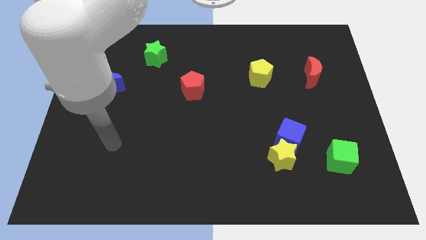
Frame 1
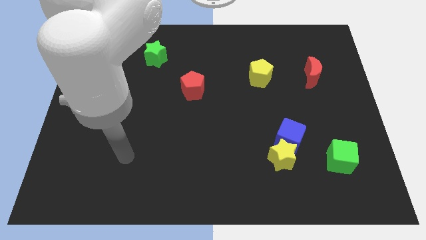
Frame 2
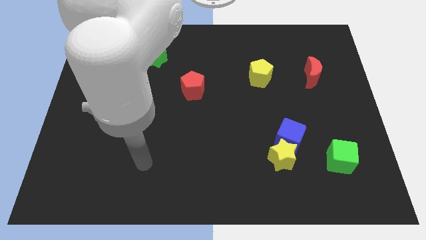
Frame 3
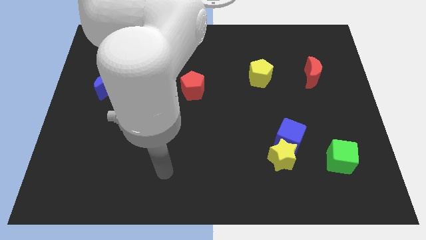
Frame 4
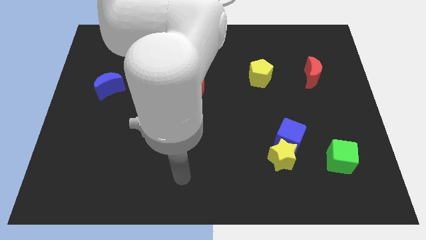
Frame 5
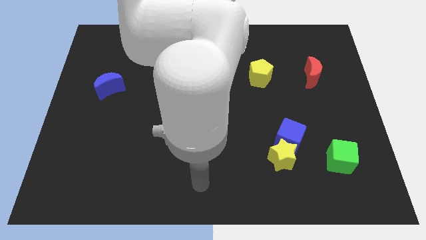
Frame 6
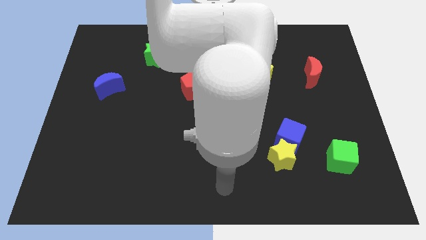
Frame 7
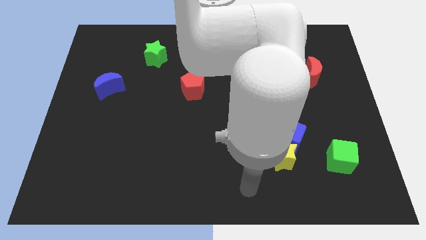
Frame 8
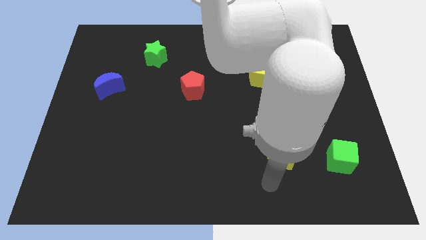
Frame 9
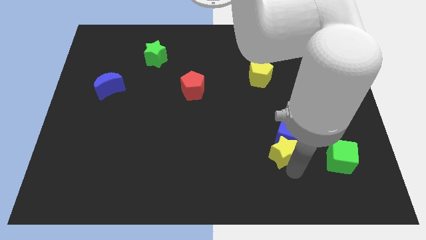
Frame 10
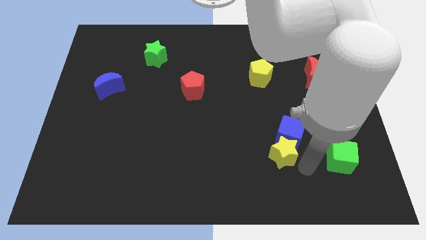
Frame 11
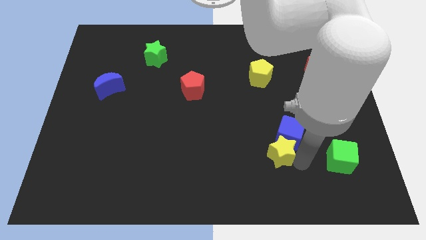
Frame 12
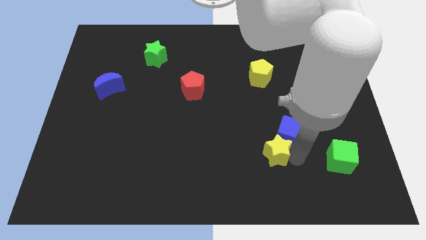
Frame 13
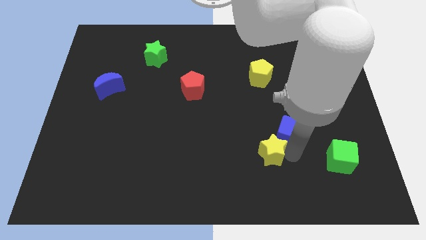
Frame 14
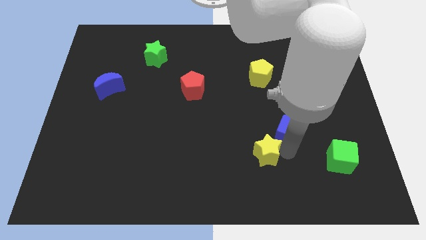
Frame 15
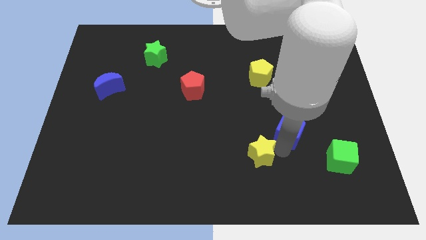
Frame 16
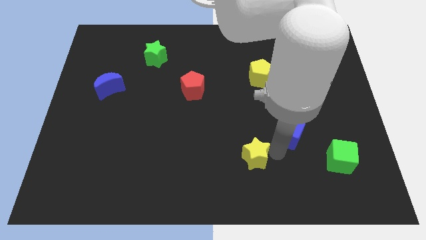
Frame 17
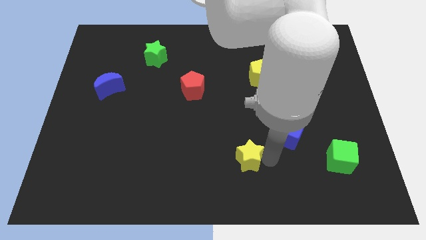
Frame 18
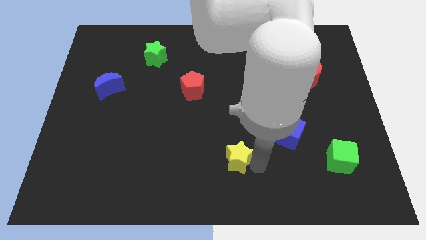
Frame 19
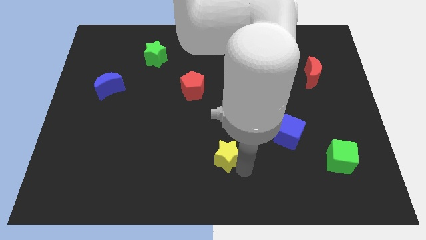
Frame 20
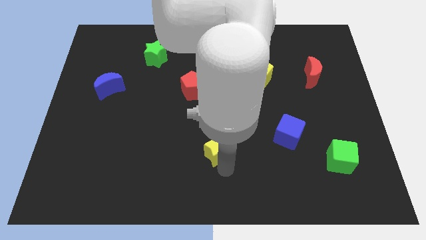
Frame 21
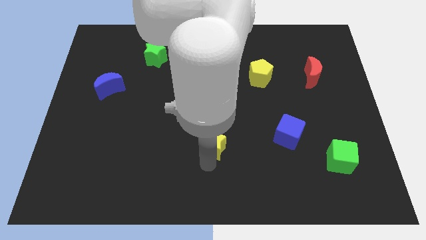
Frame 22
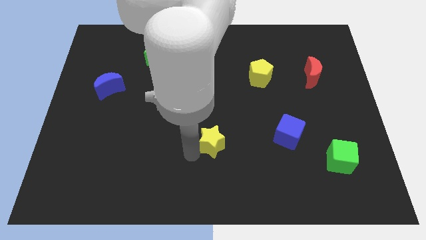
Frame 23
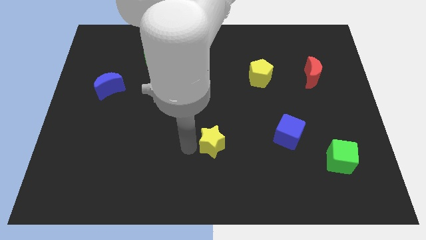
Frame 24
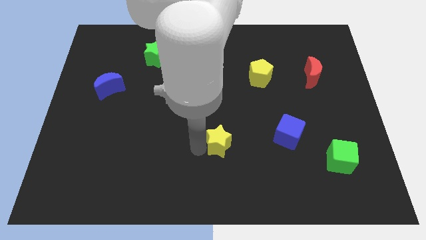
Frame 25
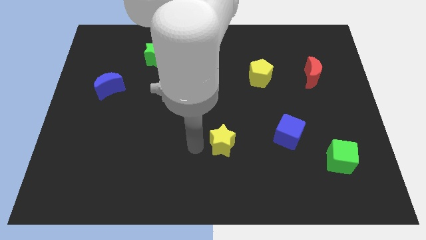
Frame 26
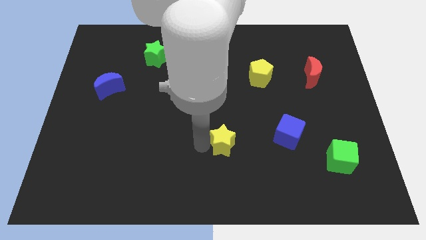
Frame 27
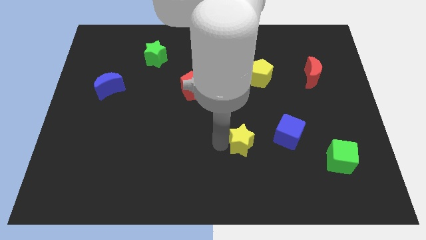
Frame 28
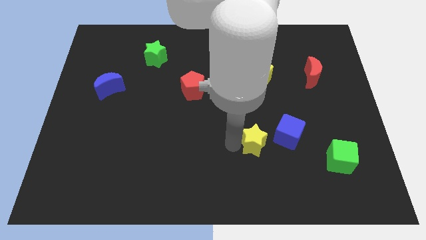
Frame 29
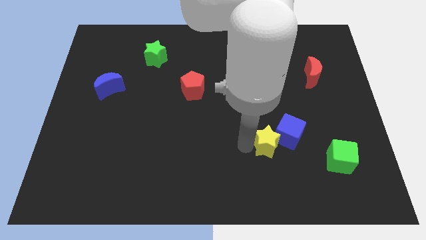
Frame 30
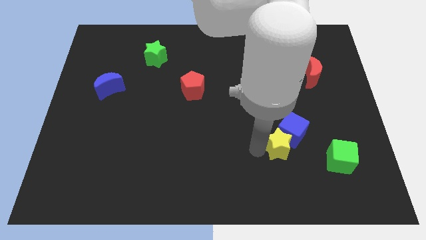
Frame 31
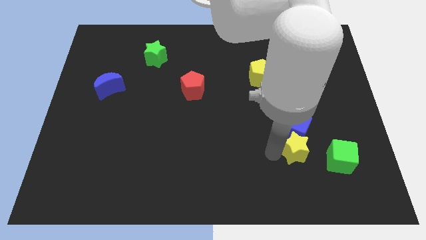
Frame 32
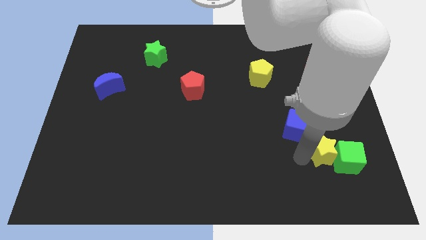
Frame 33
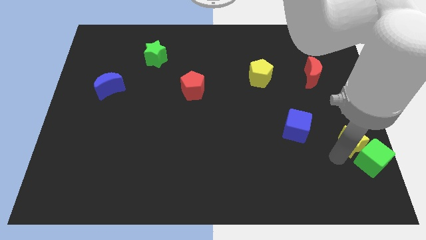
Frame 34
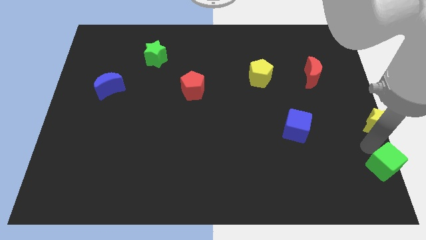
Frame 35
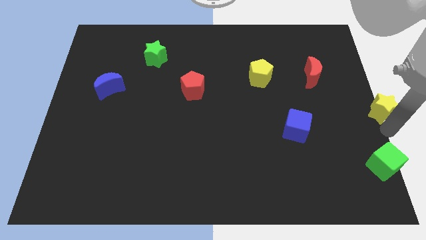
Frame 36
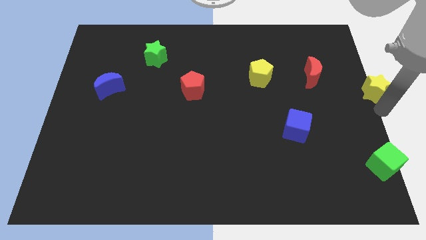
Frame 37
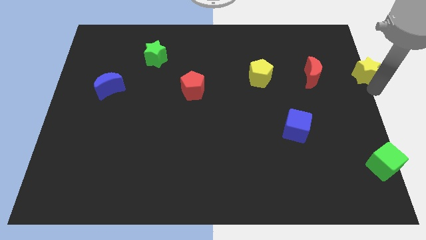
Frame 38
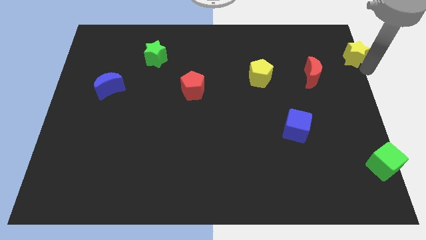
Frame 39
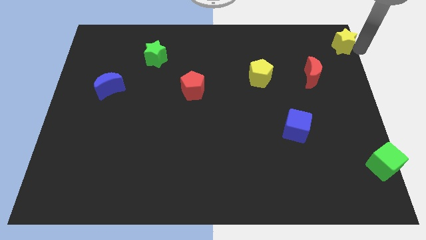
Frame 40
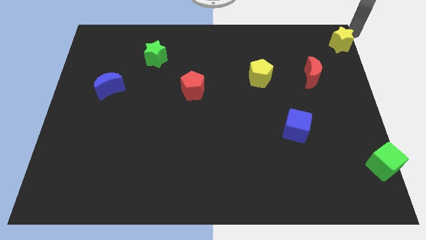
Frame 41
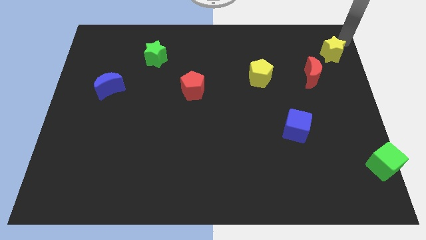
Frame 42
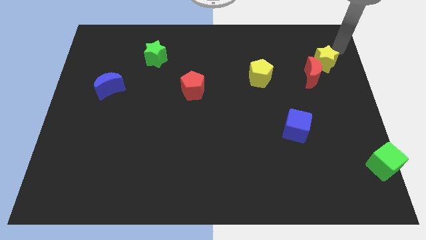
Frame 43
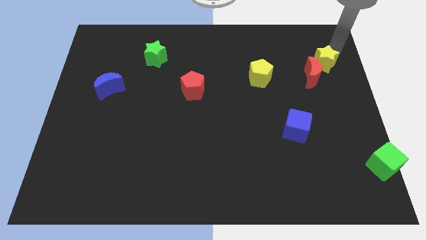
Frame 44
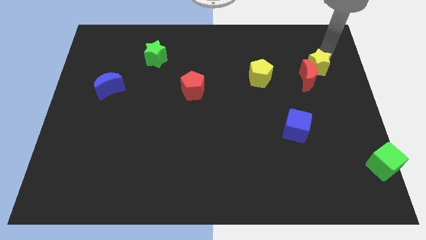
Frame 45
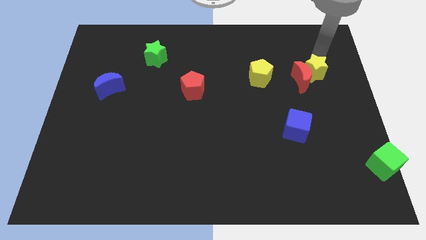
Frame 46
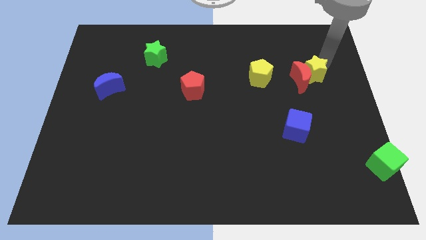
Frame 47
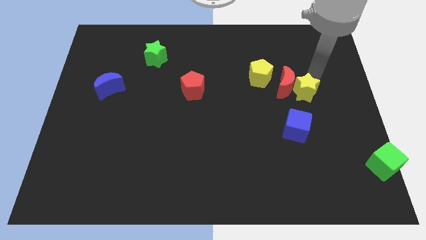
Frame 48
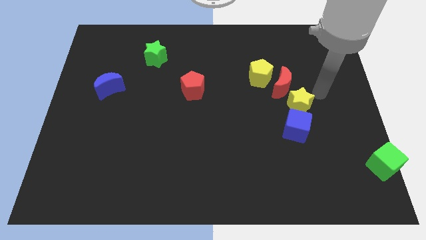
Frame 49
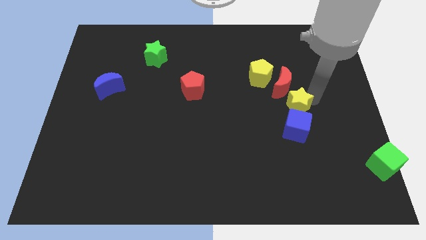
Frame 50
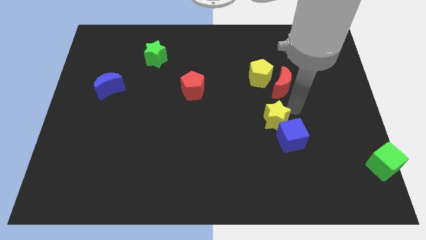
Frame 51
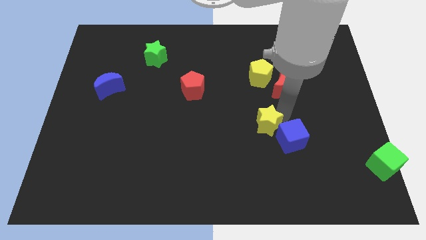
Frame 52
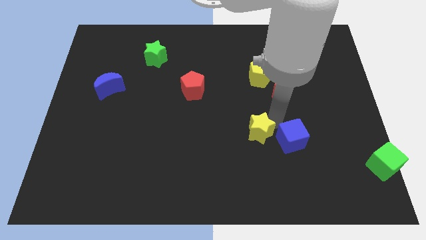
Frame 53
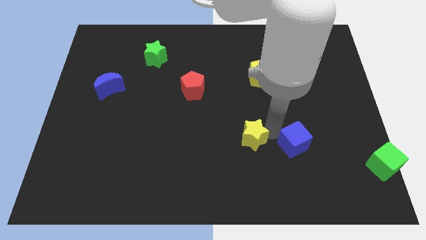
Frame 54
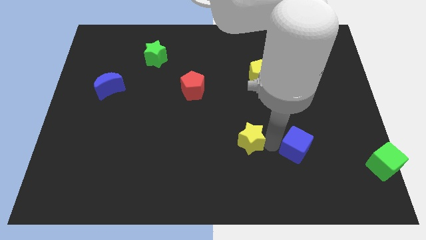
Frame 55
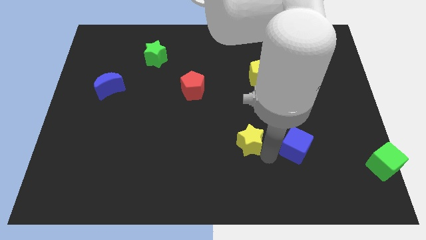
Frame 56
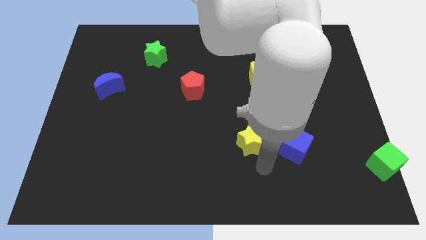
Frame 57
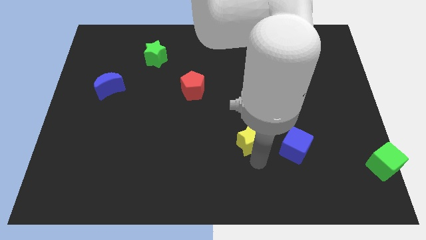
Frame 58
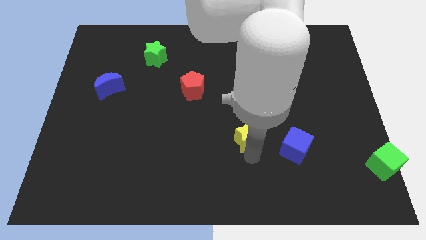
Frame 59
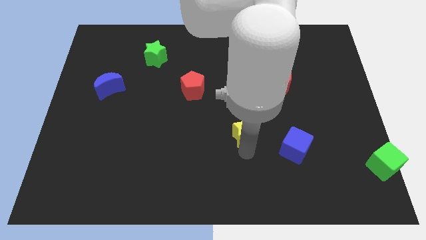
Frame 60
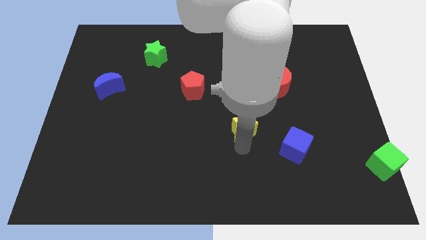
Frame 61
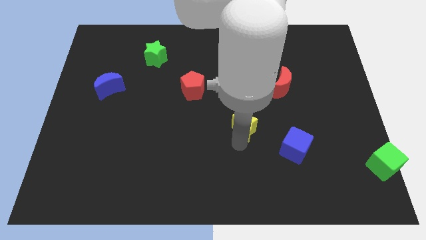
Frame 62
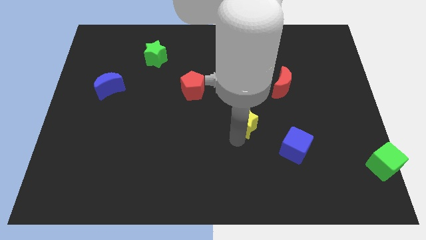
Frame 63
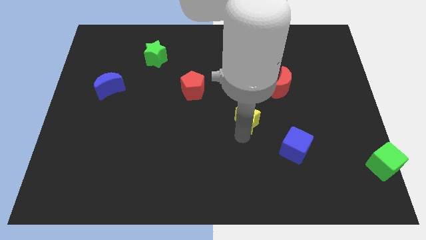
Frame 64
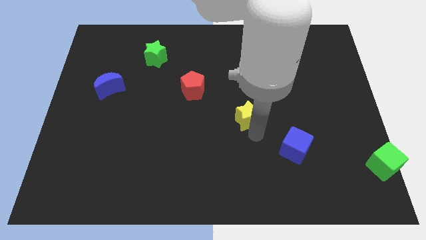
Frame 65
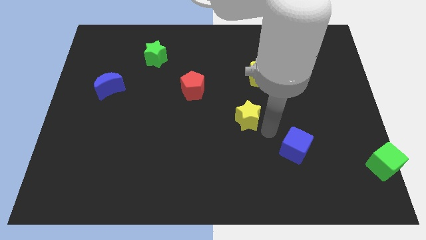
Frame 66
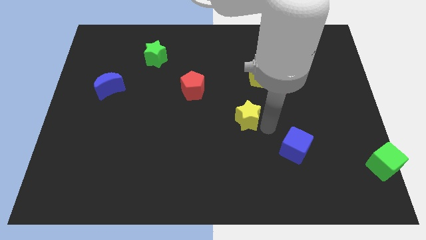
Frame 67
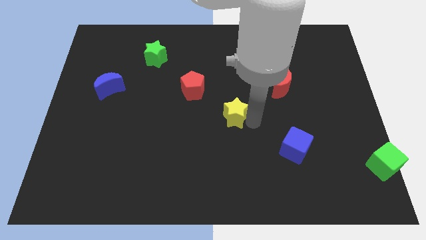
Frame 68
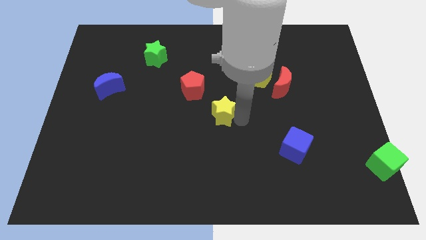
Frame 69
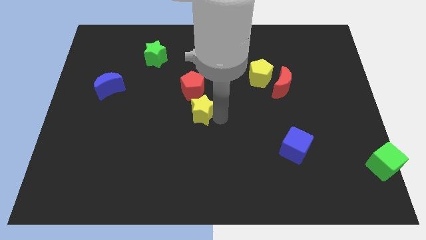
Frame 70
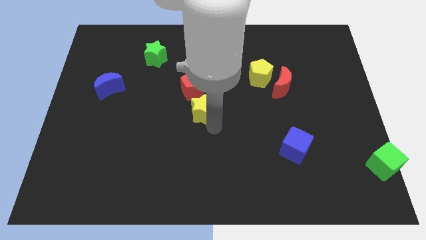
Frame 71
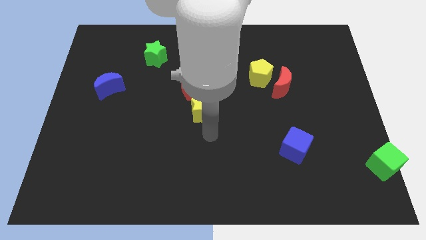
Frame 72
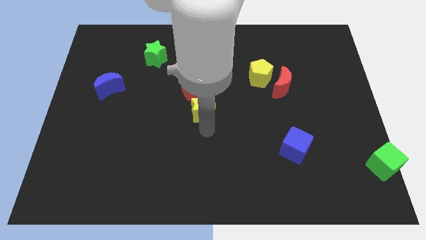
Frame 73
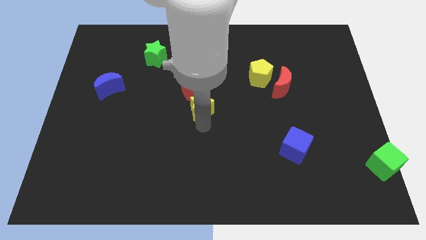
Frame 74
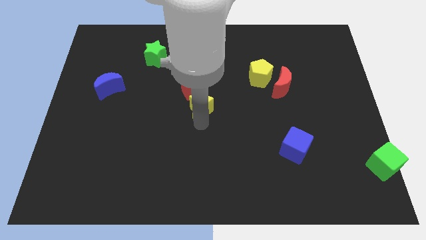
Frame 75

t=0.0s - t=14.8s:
slide the yellow star next to the red pentagon
